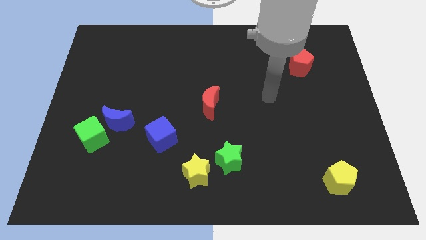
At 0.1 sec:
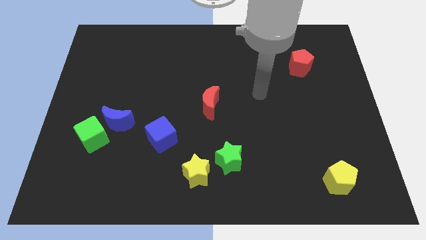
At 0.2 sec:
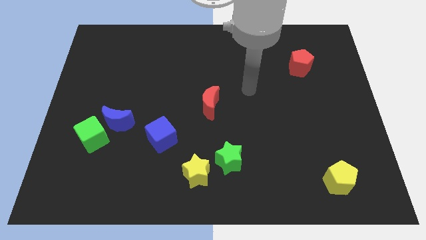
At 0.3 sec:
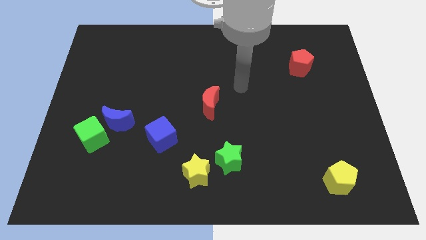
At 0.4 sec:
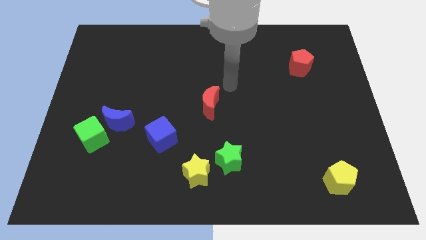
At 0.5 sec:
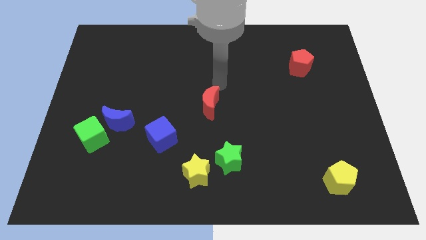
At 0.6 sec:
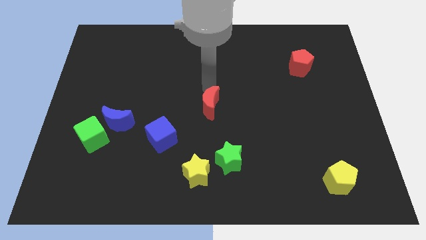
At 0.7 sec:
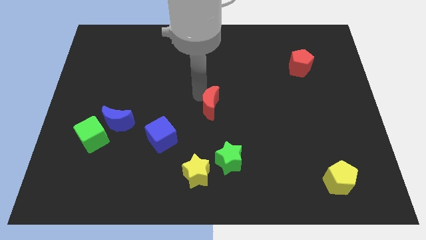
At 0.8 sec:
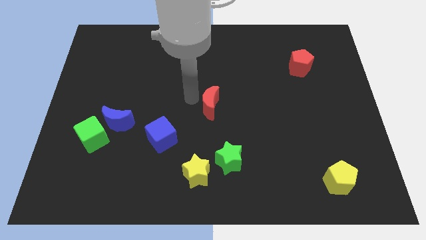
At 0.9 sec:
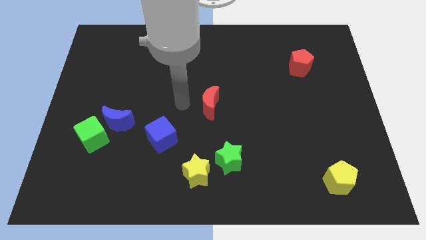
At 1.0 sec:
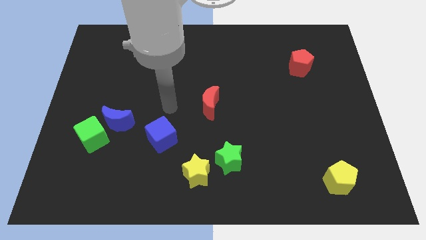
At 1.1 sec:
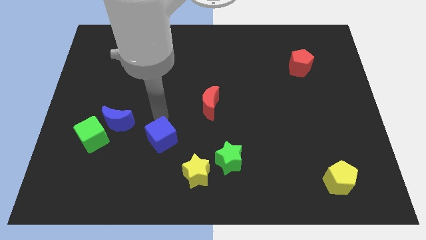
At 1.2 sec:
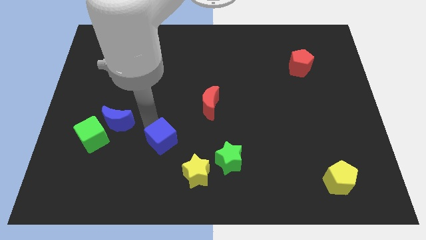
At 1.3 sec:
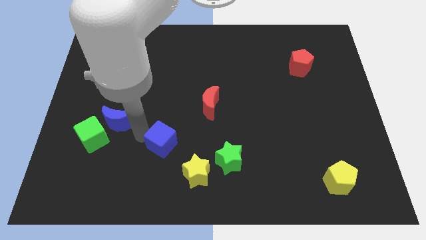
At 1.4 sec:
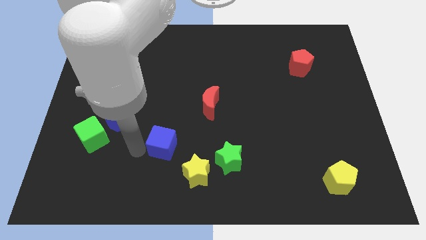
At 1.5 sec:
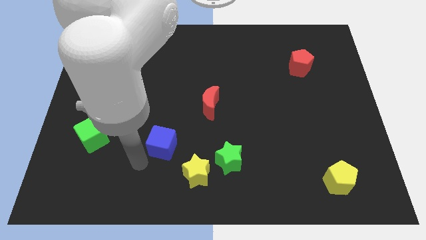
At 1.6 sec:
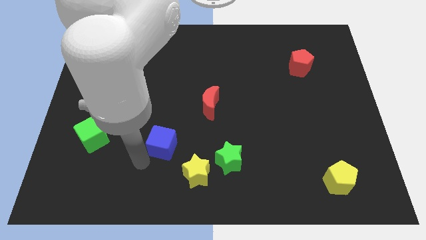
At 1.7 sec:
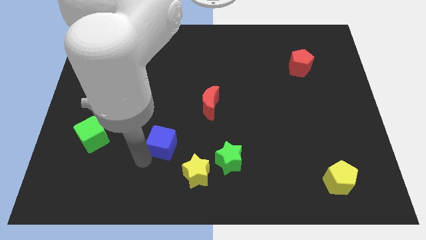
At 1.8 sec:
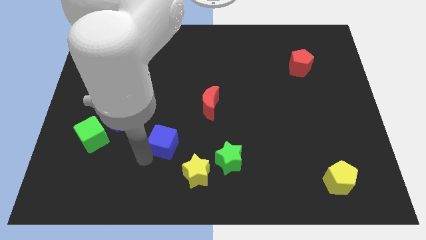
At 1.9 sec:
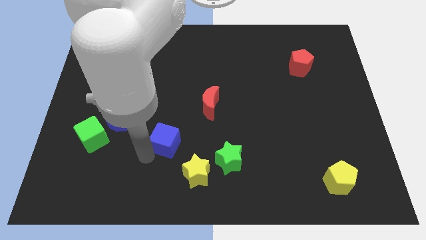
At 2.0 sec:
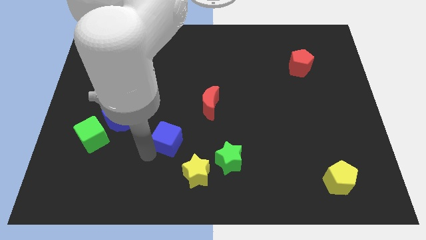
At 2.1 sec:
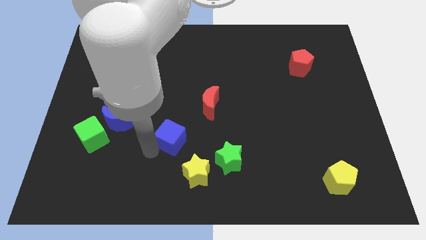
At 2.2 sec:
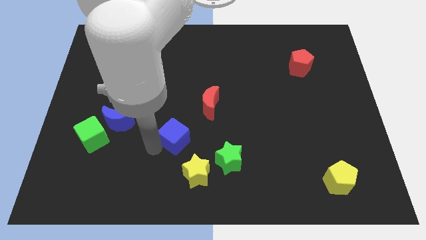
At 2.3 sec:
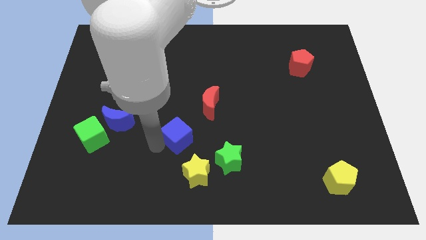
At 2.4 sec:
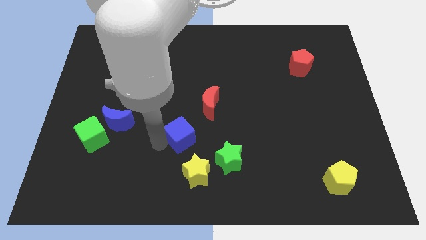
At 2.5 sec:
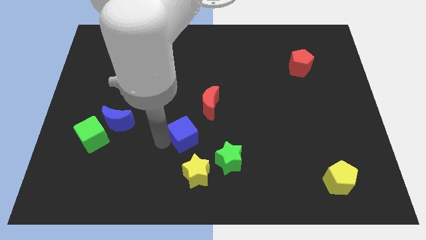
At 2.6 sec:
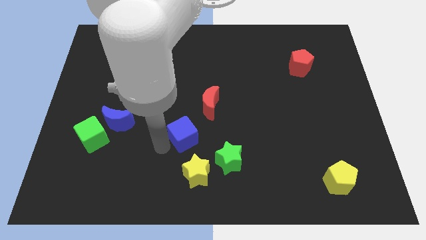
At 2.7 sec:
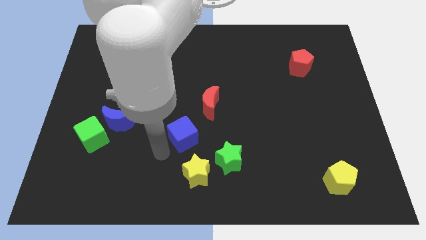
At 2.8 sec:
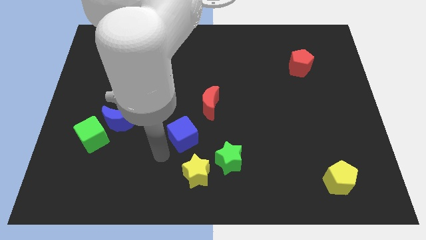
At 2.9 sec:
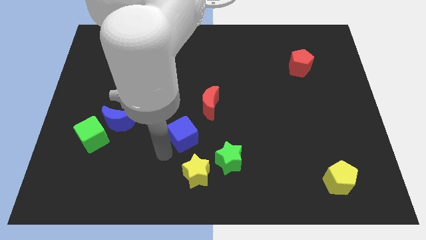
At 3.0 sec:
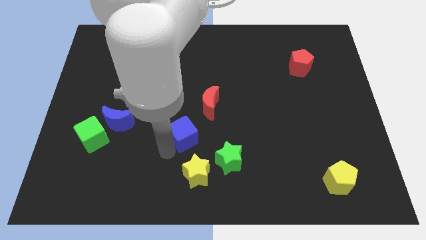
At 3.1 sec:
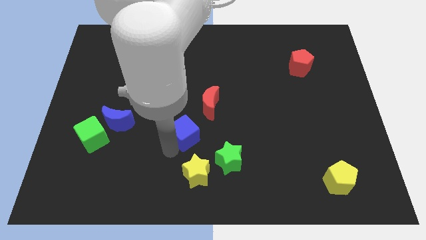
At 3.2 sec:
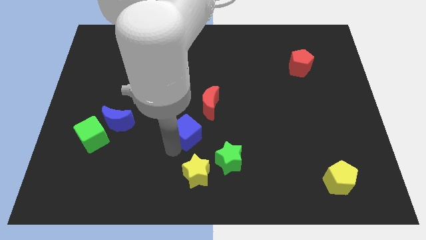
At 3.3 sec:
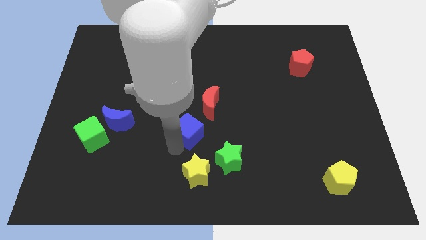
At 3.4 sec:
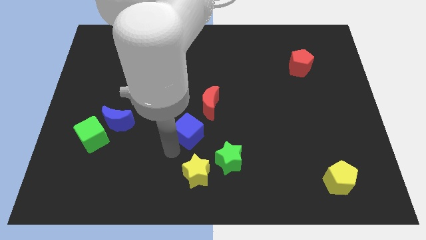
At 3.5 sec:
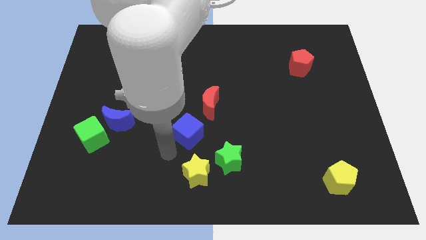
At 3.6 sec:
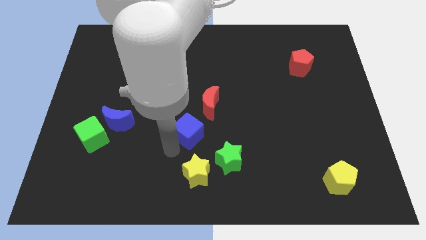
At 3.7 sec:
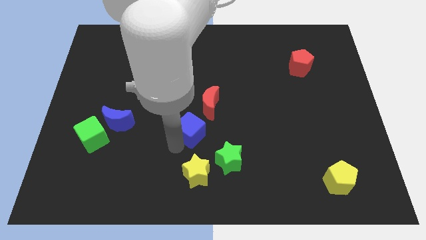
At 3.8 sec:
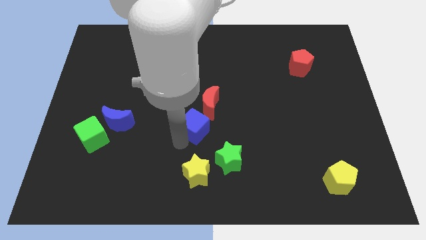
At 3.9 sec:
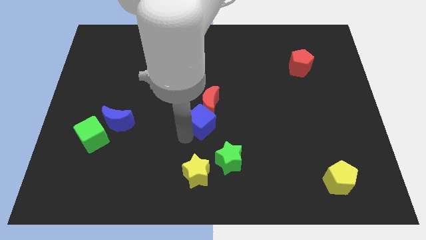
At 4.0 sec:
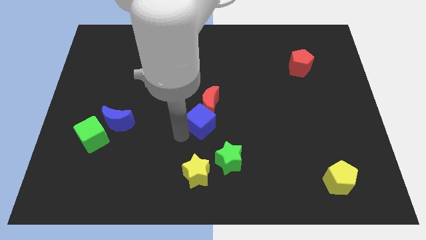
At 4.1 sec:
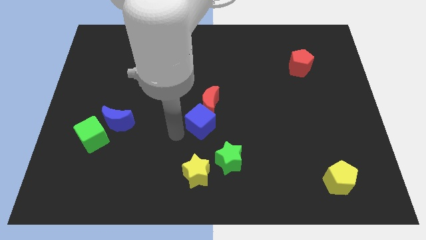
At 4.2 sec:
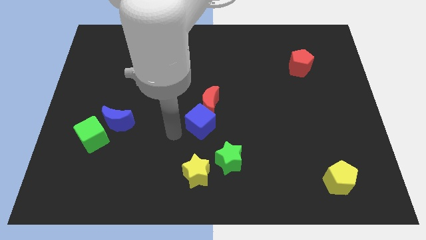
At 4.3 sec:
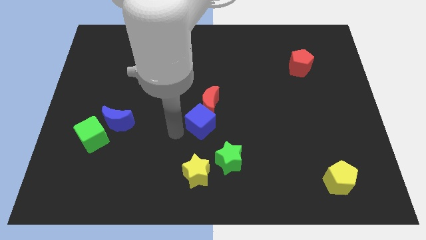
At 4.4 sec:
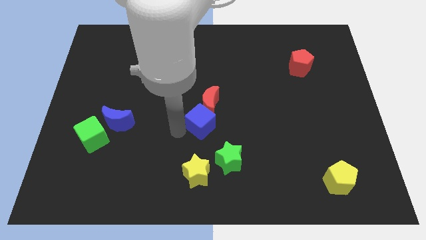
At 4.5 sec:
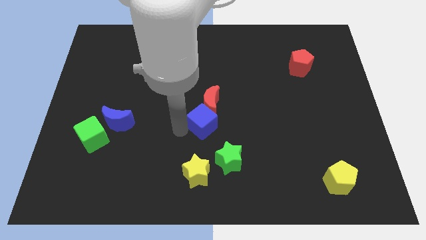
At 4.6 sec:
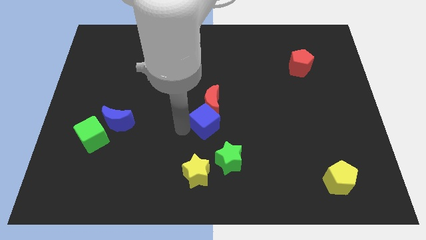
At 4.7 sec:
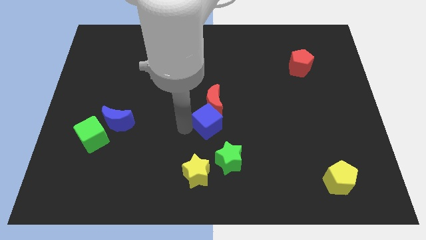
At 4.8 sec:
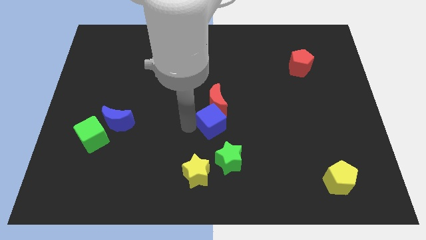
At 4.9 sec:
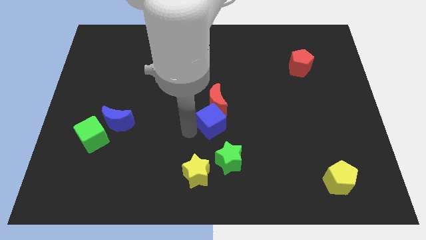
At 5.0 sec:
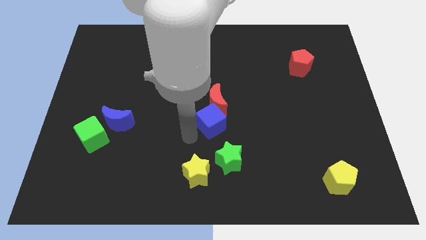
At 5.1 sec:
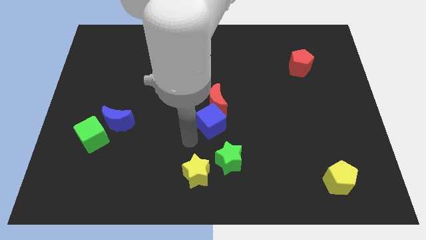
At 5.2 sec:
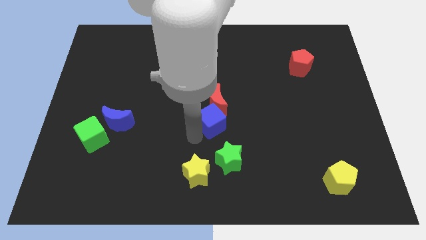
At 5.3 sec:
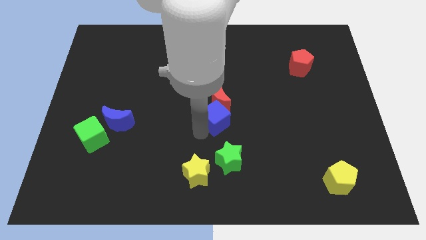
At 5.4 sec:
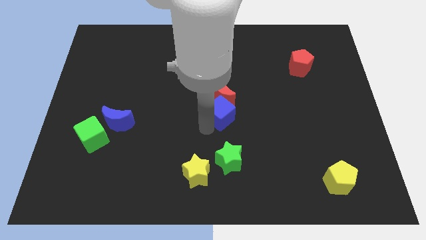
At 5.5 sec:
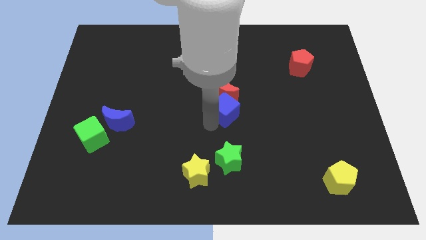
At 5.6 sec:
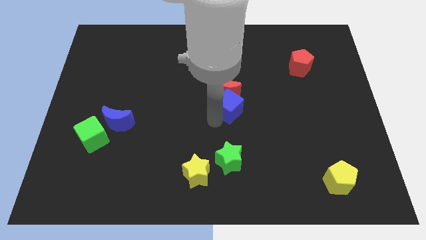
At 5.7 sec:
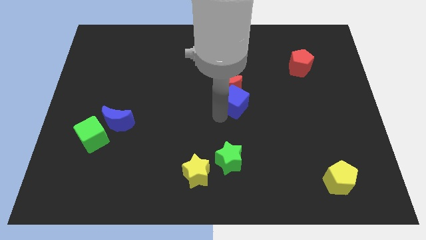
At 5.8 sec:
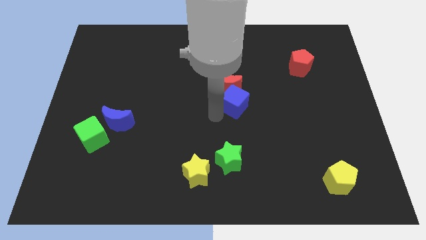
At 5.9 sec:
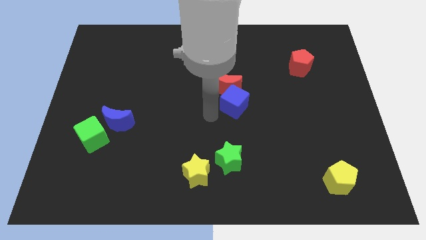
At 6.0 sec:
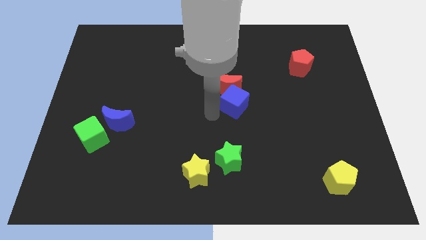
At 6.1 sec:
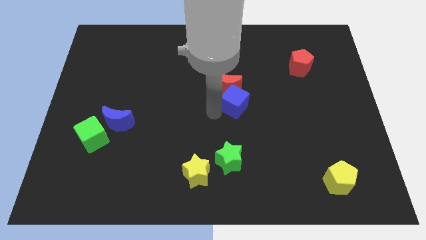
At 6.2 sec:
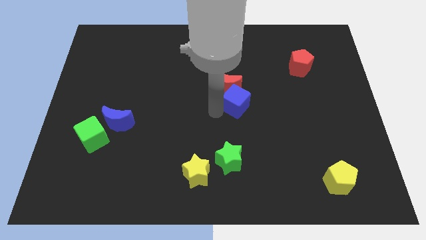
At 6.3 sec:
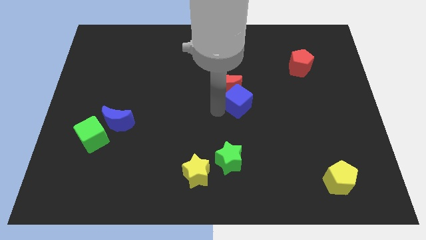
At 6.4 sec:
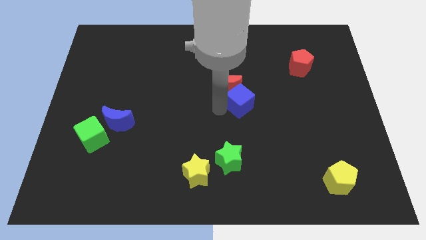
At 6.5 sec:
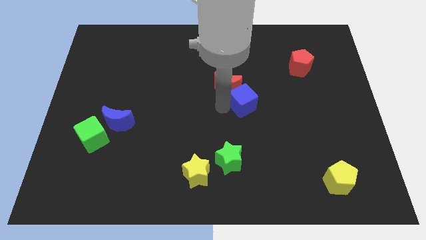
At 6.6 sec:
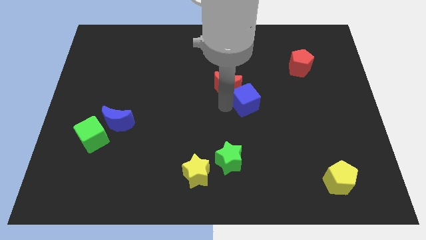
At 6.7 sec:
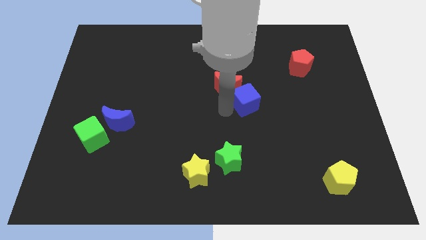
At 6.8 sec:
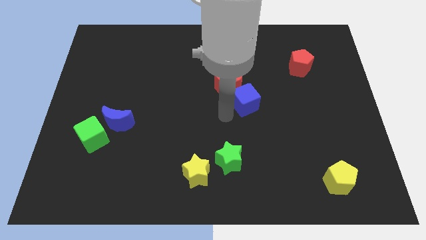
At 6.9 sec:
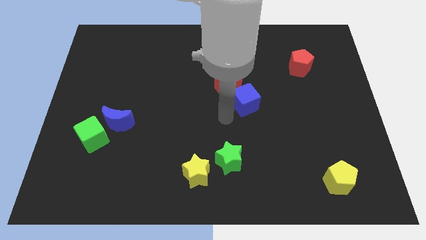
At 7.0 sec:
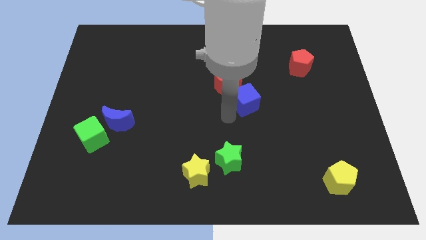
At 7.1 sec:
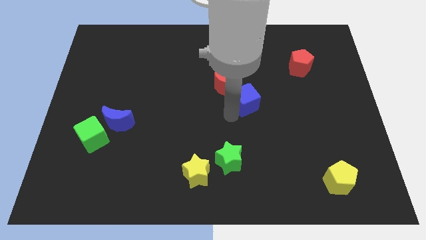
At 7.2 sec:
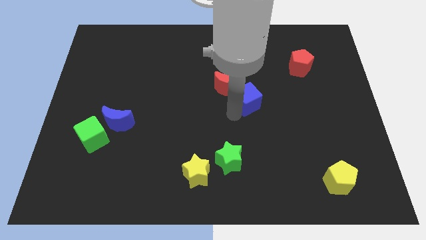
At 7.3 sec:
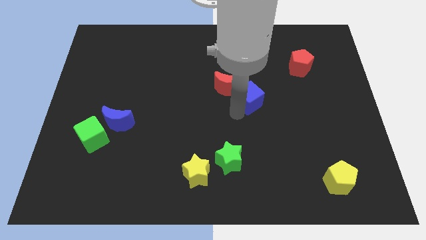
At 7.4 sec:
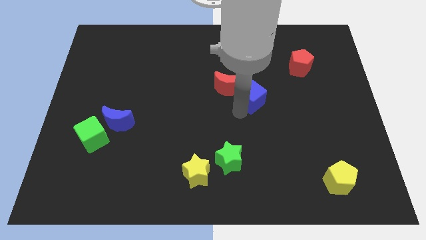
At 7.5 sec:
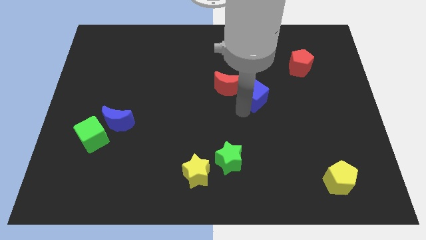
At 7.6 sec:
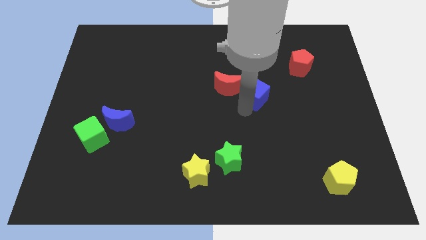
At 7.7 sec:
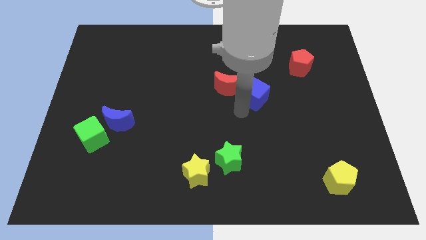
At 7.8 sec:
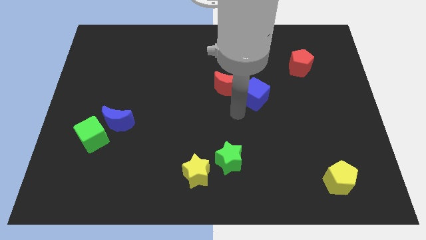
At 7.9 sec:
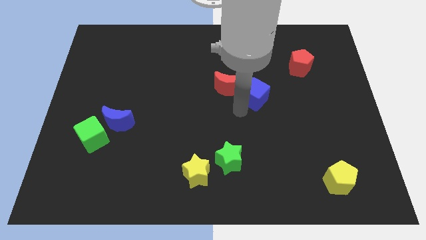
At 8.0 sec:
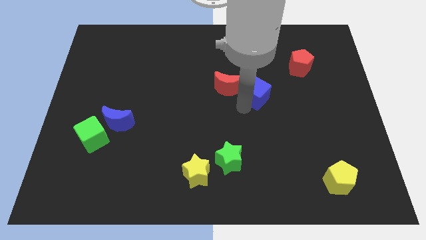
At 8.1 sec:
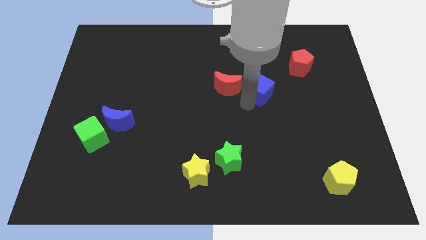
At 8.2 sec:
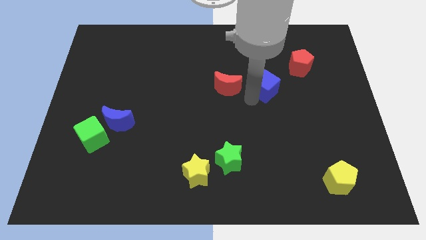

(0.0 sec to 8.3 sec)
push the blue cube diagonally down and to the left of the red pentagon
